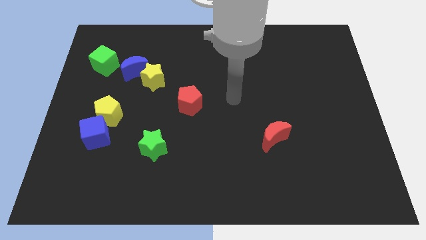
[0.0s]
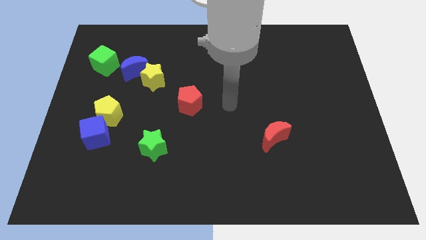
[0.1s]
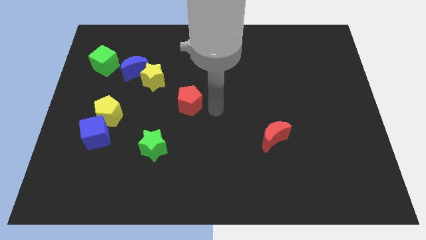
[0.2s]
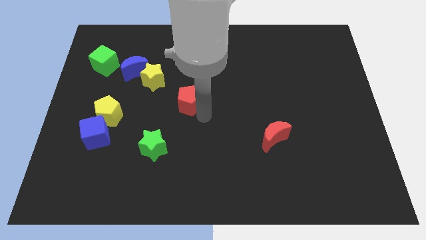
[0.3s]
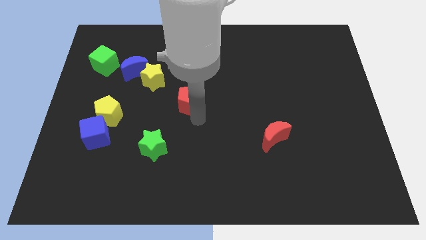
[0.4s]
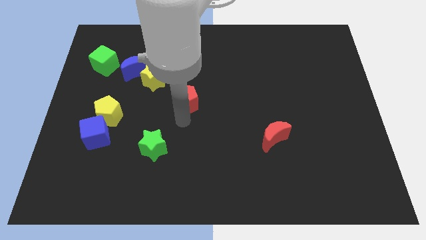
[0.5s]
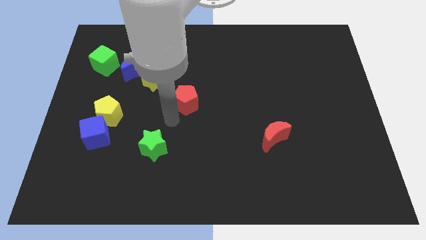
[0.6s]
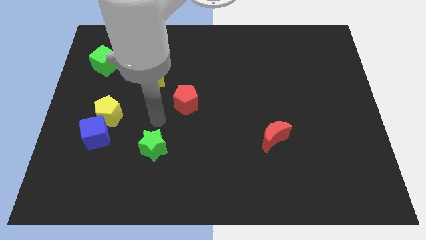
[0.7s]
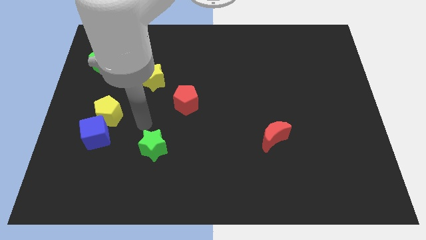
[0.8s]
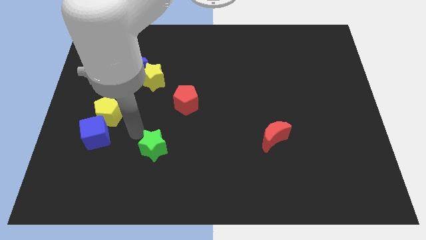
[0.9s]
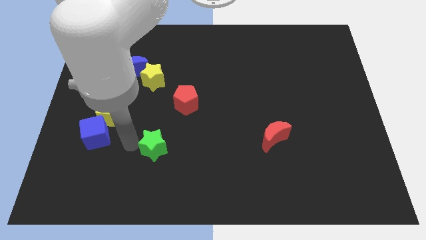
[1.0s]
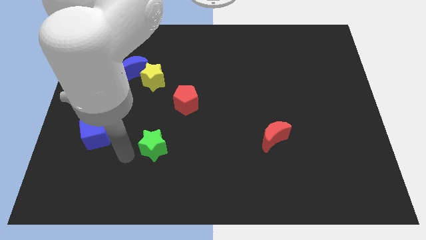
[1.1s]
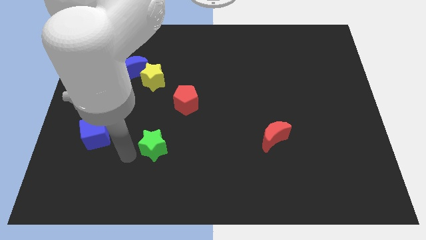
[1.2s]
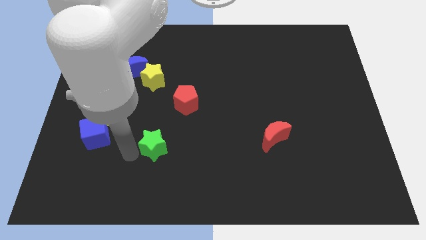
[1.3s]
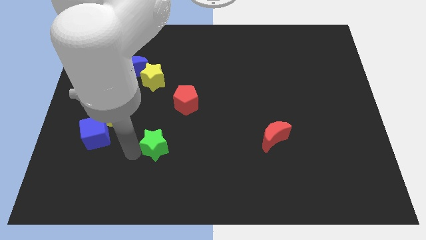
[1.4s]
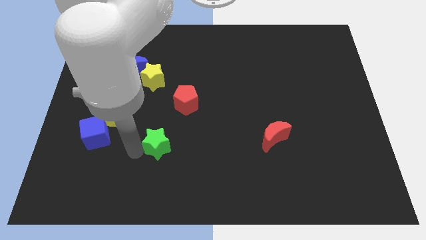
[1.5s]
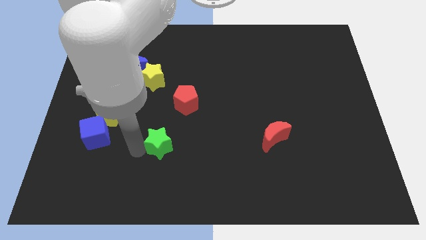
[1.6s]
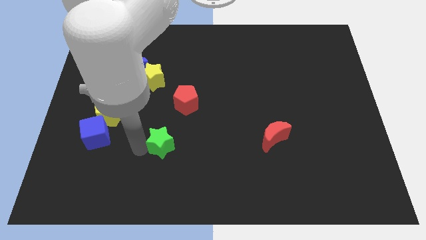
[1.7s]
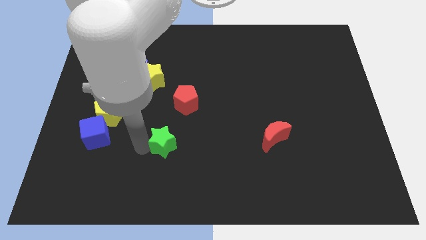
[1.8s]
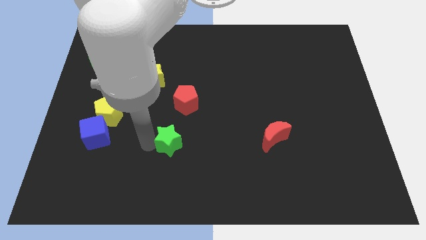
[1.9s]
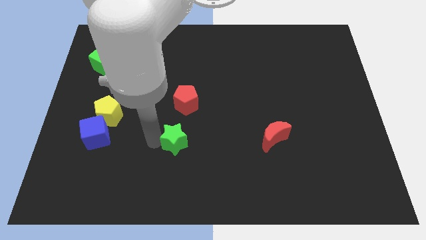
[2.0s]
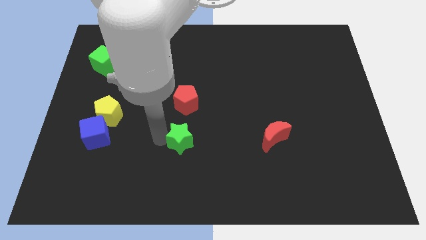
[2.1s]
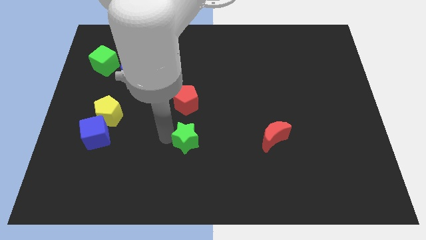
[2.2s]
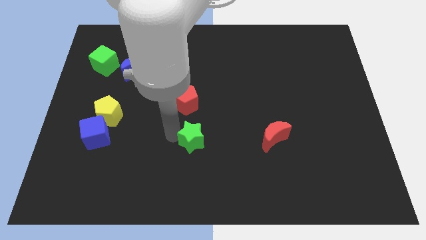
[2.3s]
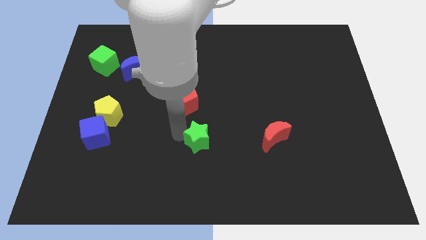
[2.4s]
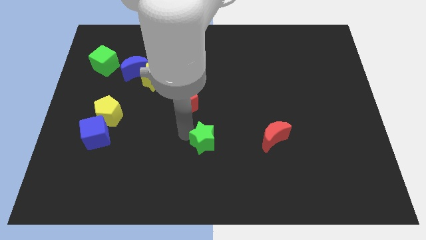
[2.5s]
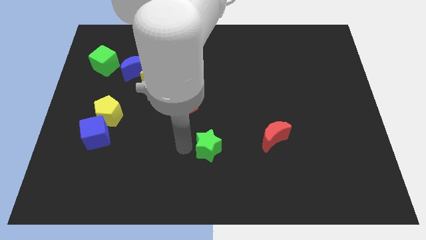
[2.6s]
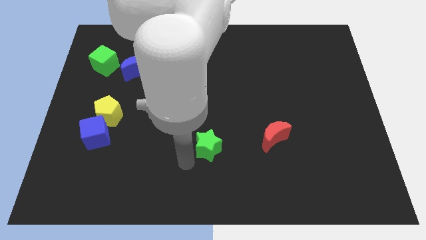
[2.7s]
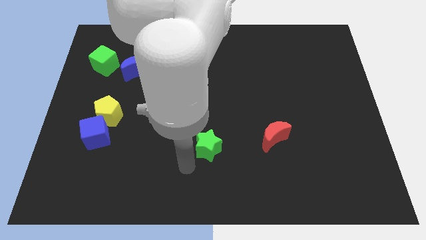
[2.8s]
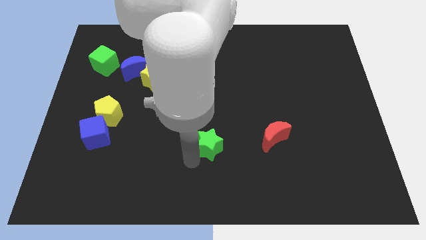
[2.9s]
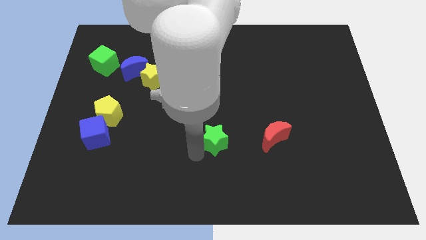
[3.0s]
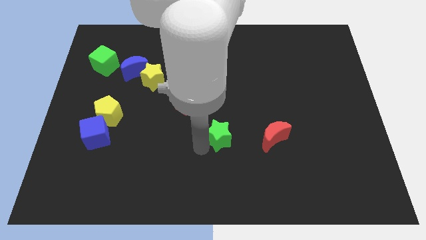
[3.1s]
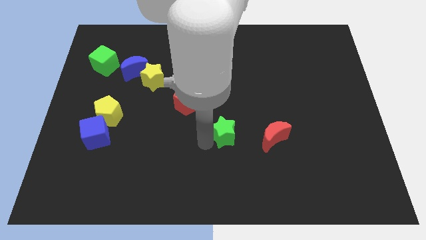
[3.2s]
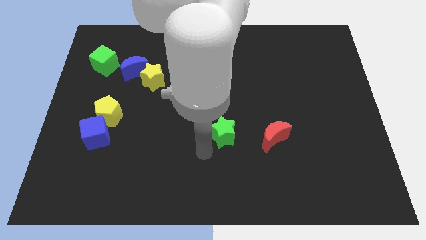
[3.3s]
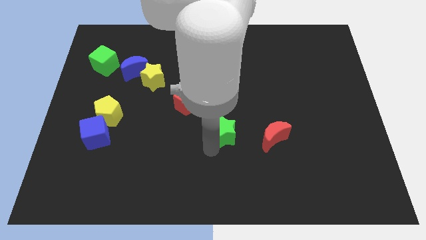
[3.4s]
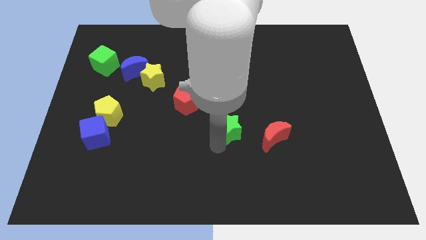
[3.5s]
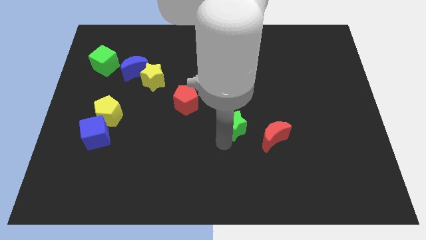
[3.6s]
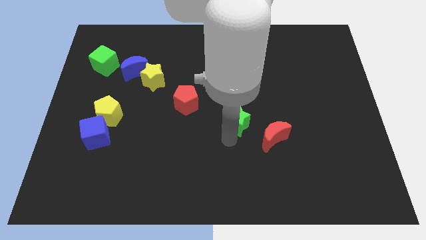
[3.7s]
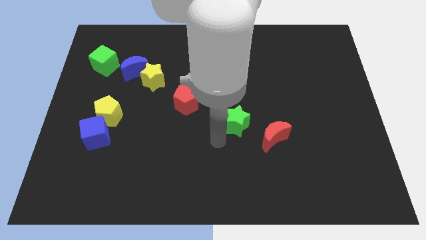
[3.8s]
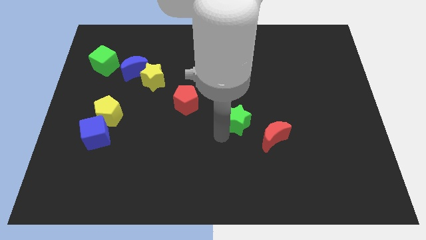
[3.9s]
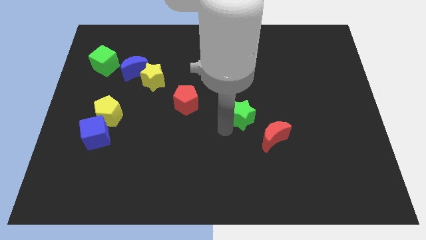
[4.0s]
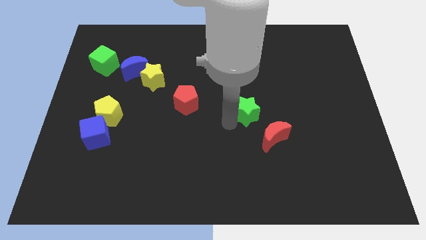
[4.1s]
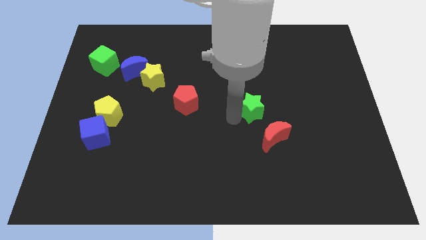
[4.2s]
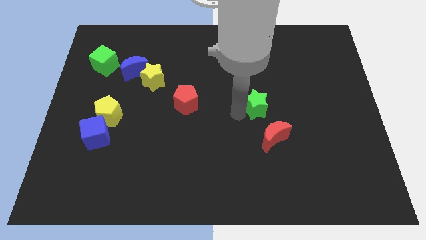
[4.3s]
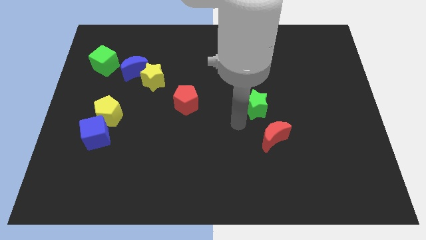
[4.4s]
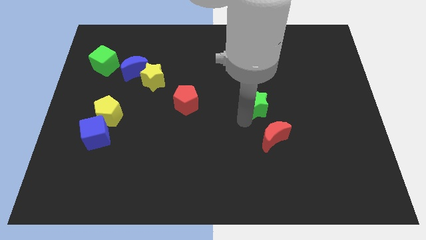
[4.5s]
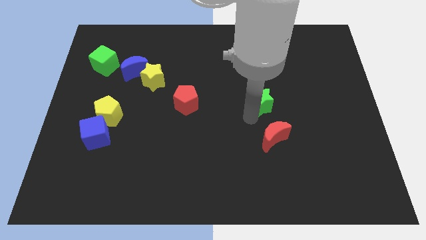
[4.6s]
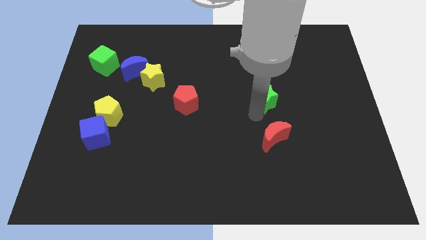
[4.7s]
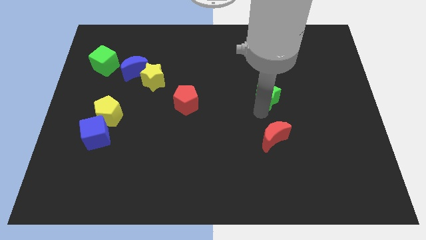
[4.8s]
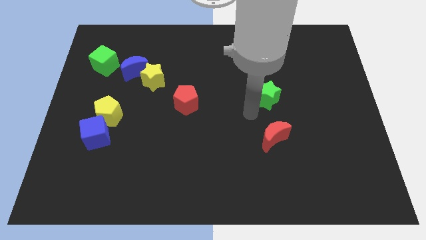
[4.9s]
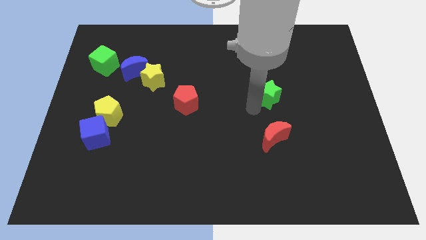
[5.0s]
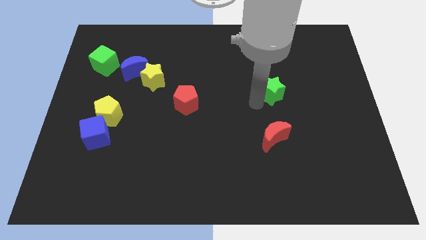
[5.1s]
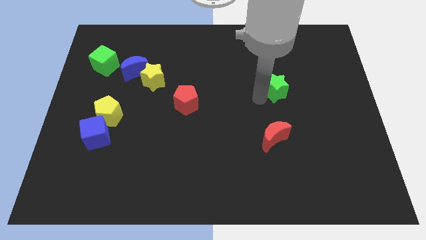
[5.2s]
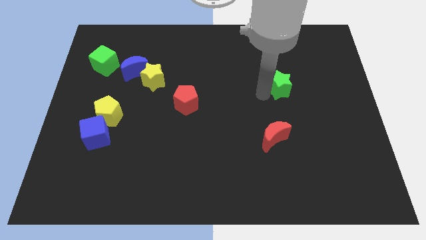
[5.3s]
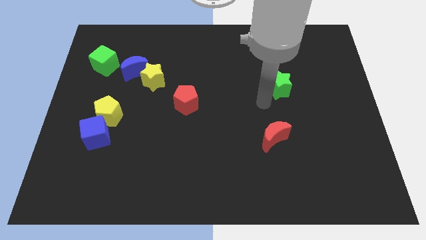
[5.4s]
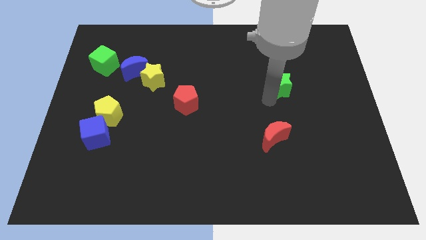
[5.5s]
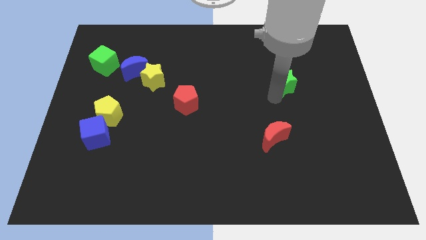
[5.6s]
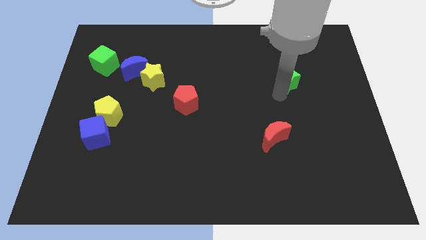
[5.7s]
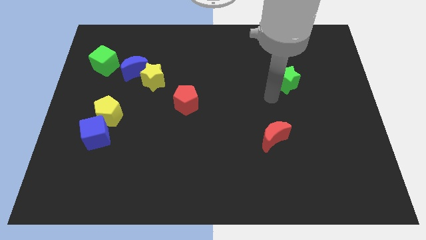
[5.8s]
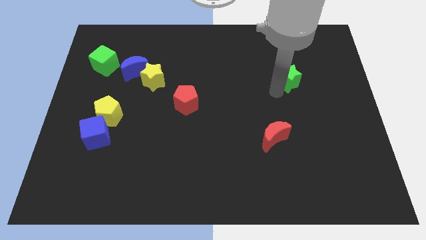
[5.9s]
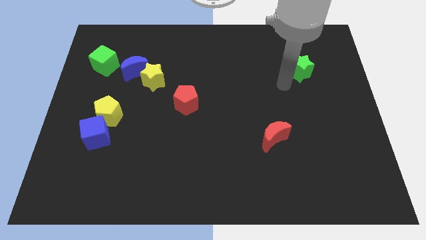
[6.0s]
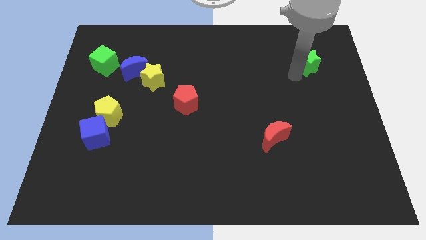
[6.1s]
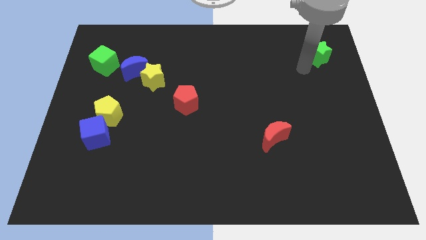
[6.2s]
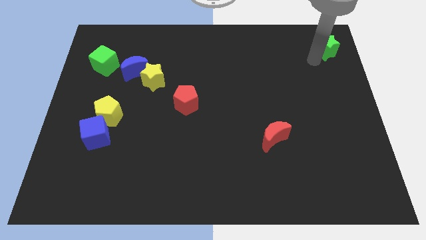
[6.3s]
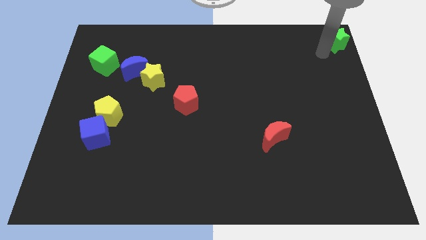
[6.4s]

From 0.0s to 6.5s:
put the green star to the top right corner
